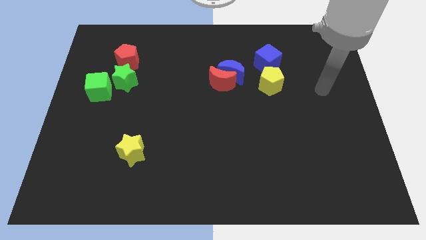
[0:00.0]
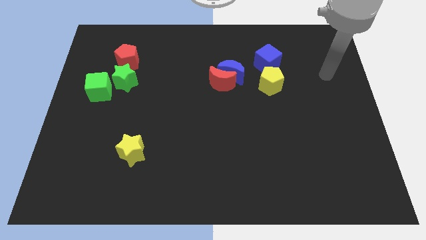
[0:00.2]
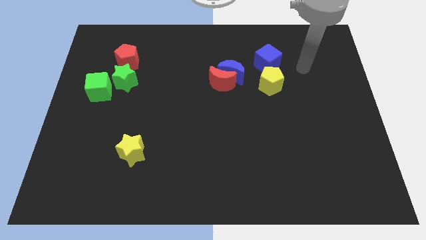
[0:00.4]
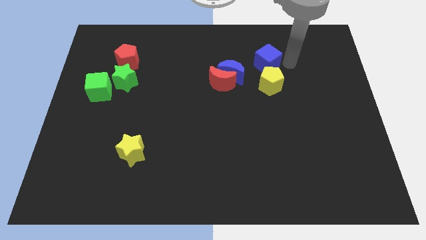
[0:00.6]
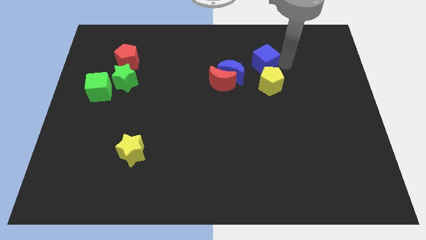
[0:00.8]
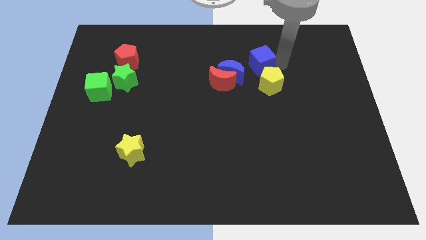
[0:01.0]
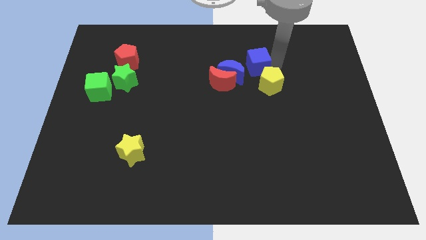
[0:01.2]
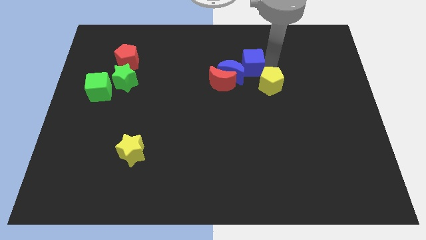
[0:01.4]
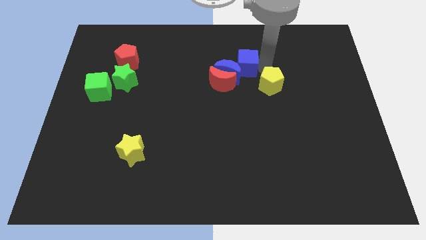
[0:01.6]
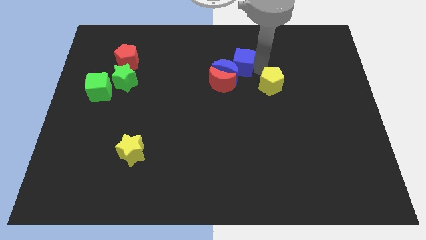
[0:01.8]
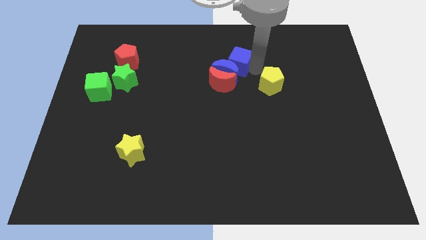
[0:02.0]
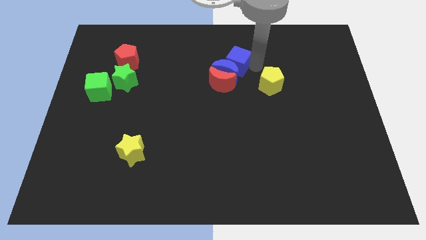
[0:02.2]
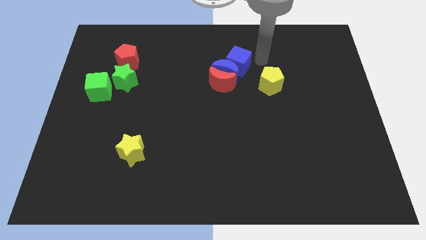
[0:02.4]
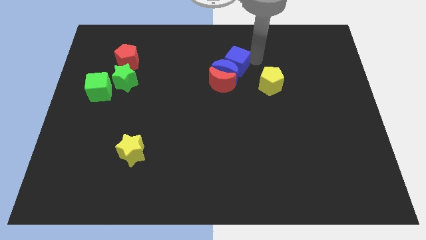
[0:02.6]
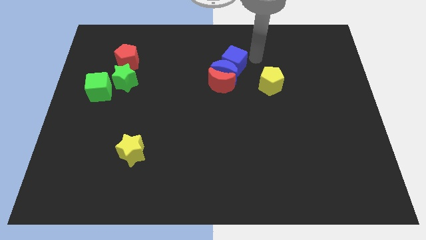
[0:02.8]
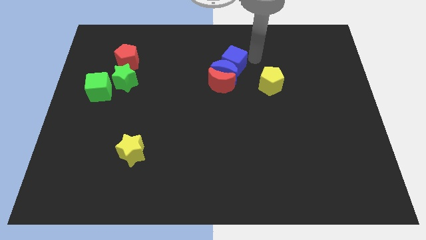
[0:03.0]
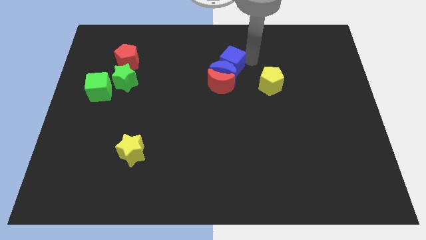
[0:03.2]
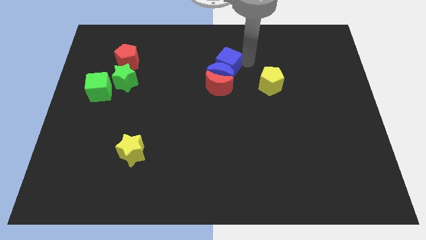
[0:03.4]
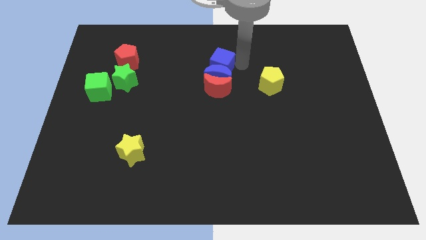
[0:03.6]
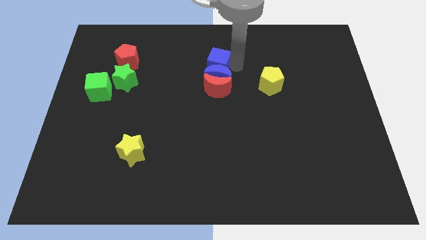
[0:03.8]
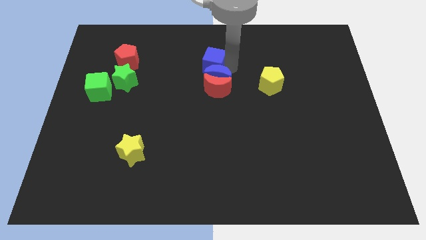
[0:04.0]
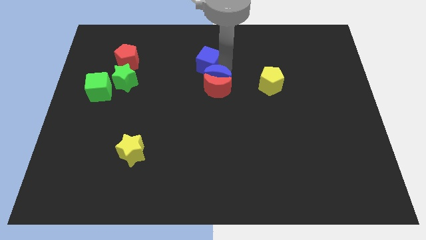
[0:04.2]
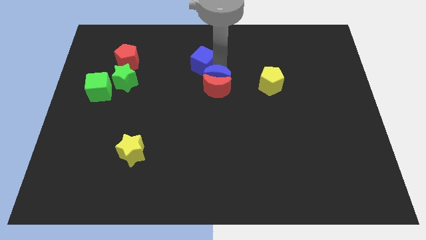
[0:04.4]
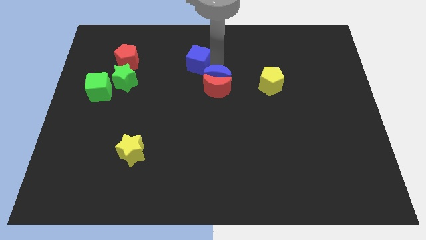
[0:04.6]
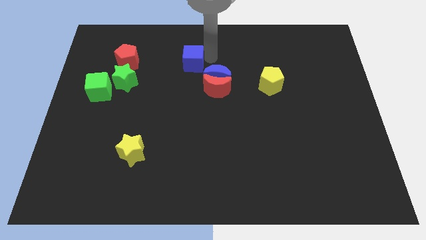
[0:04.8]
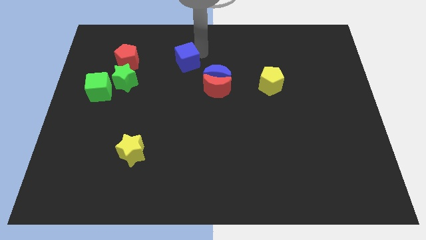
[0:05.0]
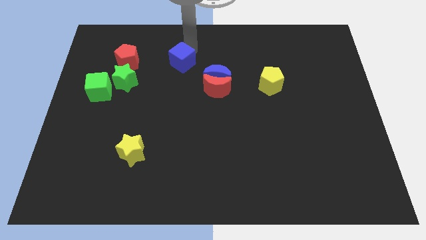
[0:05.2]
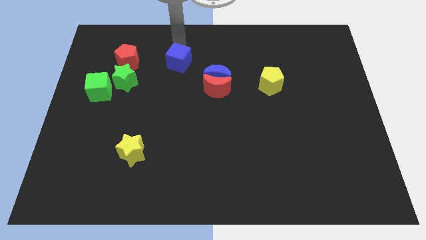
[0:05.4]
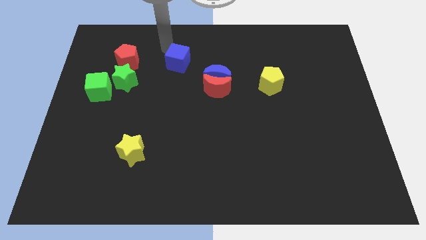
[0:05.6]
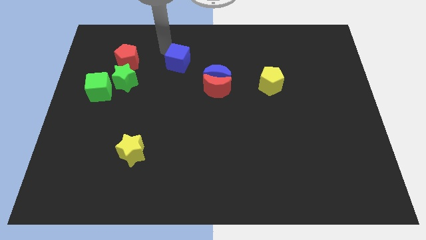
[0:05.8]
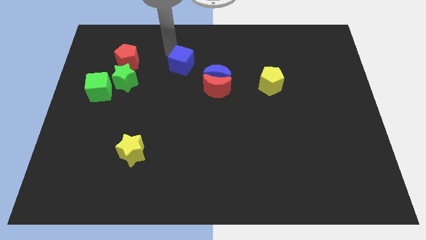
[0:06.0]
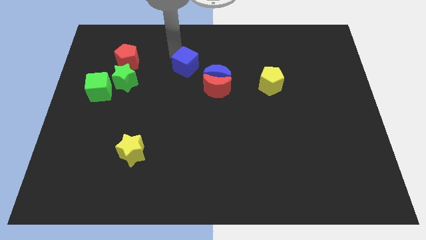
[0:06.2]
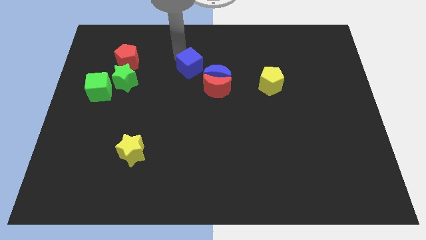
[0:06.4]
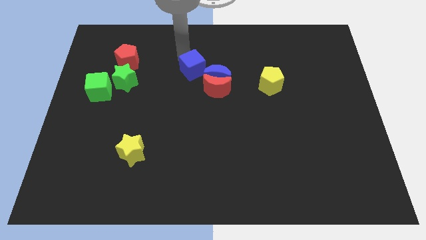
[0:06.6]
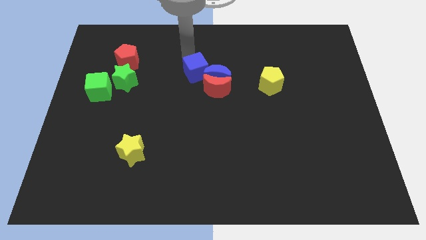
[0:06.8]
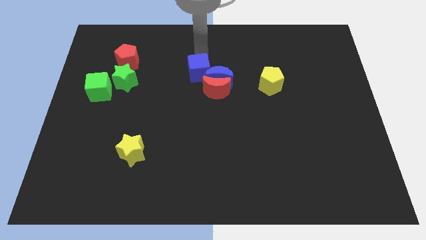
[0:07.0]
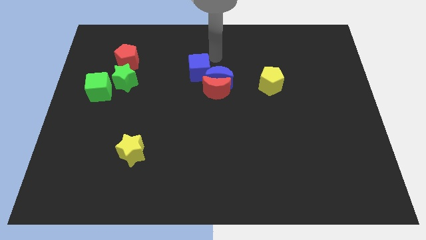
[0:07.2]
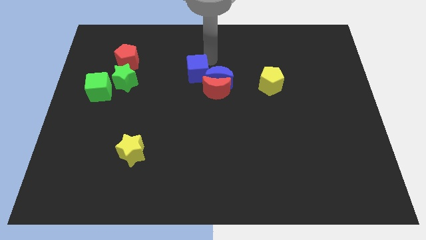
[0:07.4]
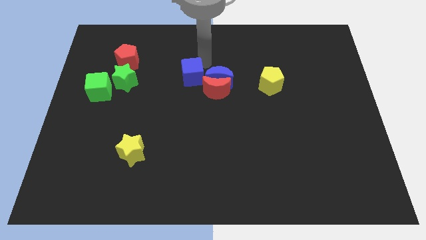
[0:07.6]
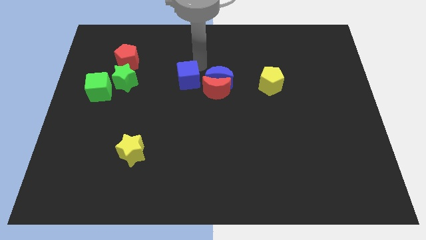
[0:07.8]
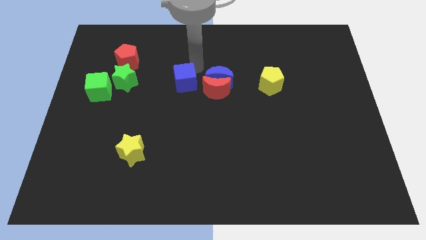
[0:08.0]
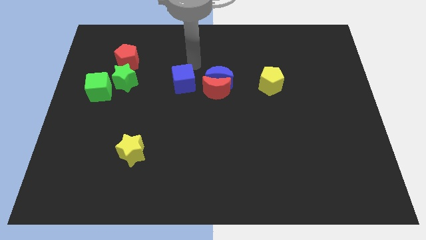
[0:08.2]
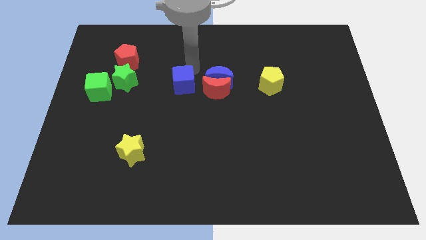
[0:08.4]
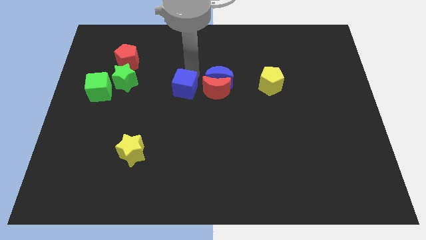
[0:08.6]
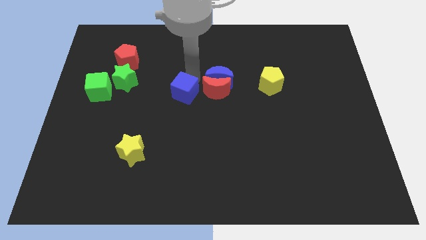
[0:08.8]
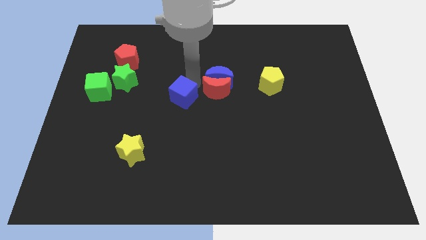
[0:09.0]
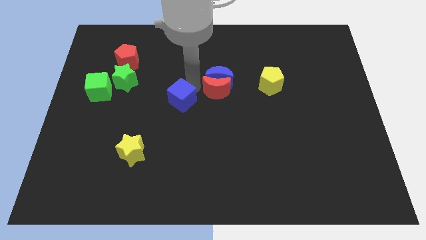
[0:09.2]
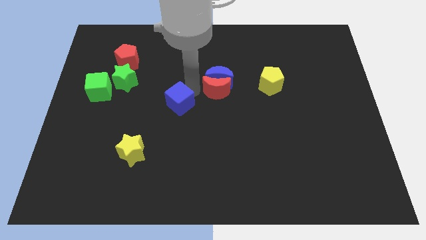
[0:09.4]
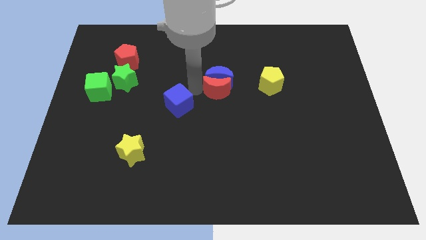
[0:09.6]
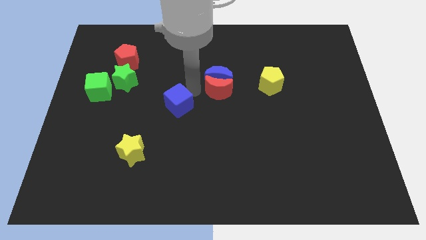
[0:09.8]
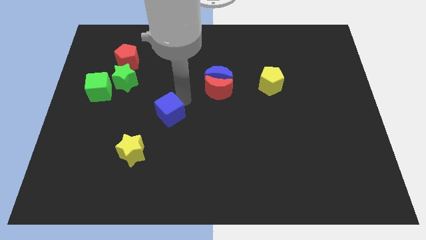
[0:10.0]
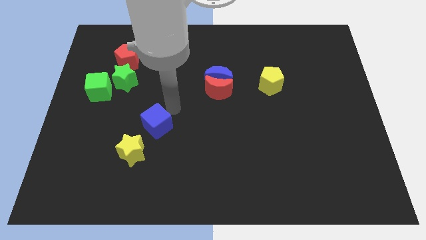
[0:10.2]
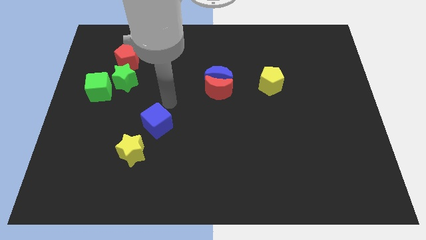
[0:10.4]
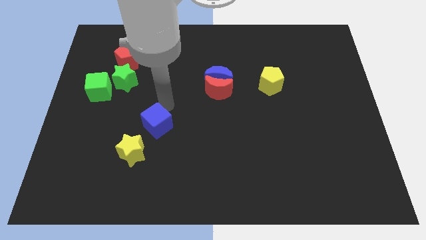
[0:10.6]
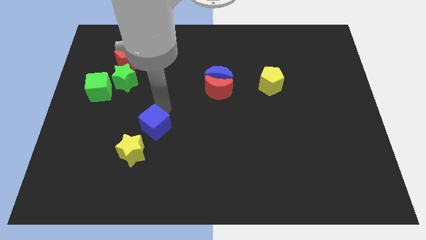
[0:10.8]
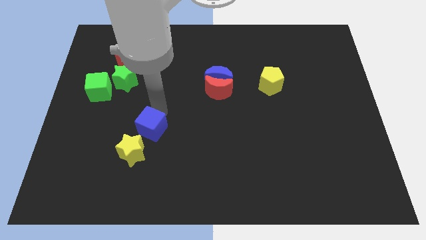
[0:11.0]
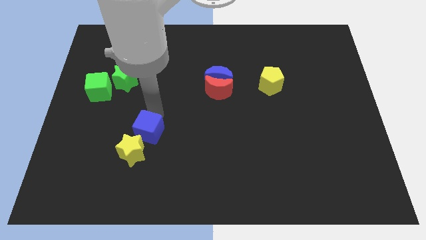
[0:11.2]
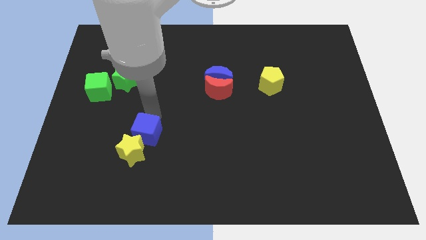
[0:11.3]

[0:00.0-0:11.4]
move the blue cube to the yellow star
